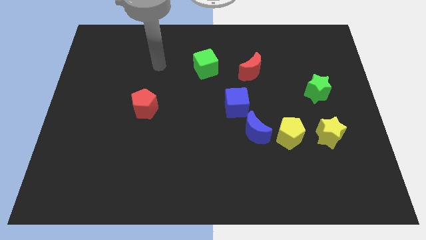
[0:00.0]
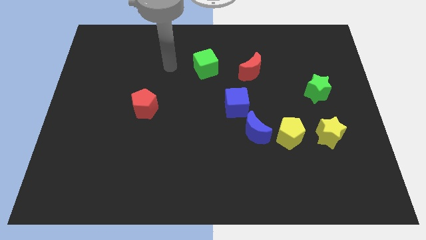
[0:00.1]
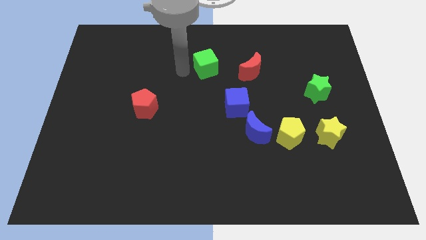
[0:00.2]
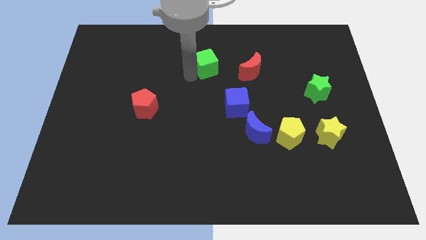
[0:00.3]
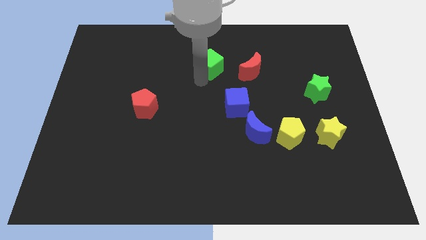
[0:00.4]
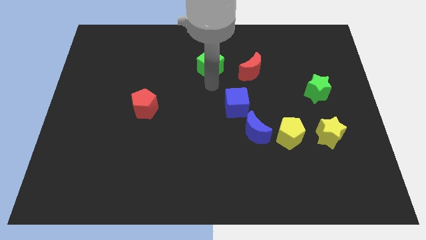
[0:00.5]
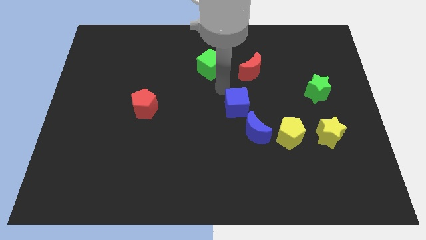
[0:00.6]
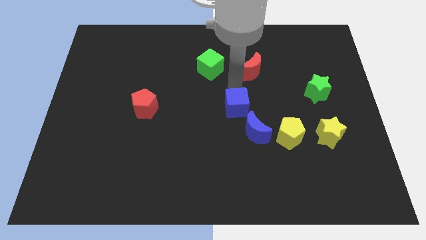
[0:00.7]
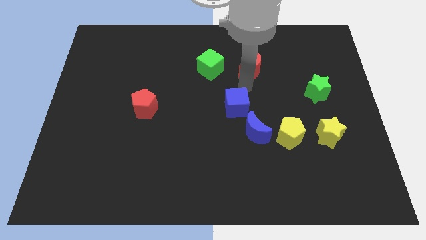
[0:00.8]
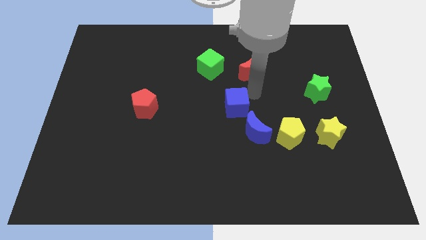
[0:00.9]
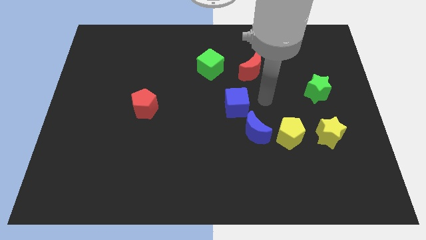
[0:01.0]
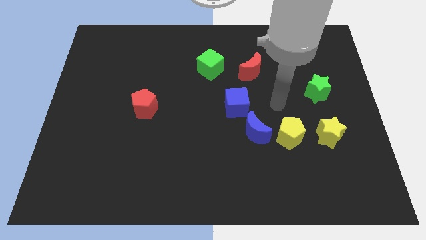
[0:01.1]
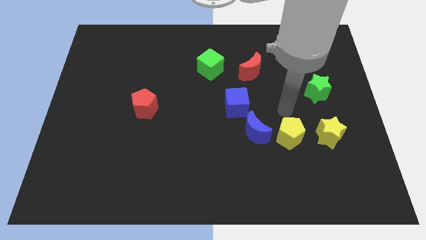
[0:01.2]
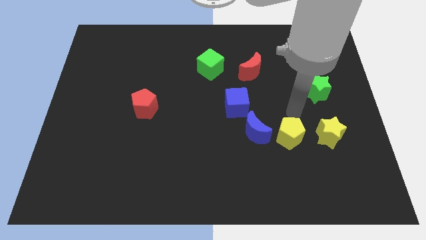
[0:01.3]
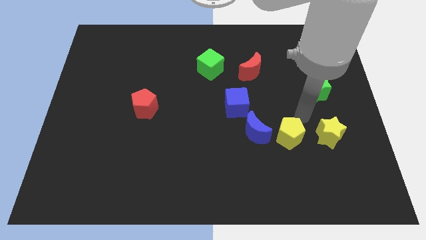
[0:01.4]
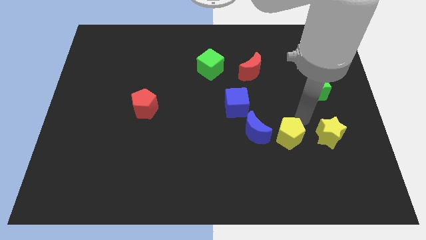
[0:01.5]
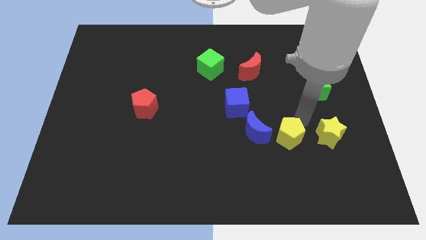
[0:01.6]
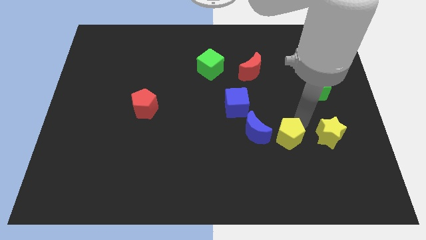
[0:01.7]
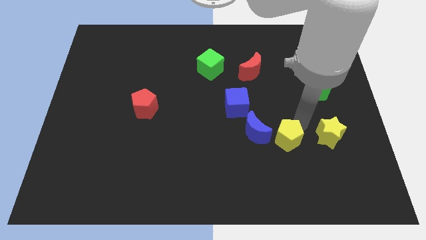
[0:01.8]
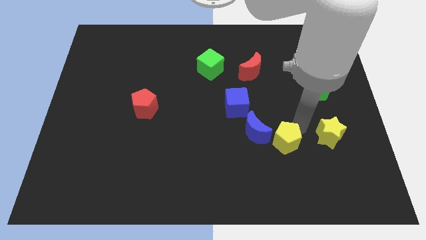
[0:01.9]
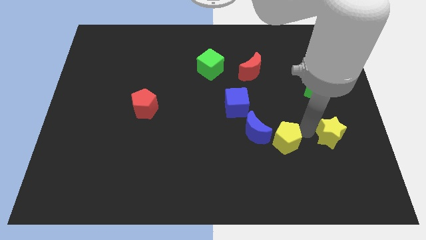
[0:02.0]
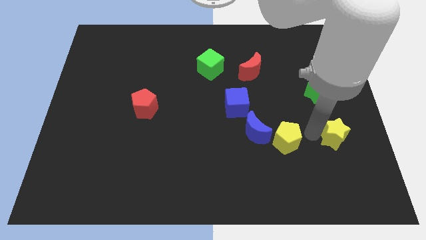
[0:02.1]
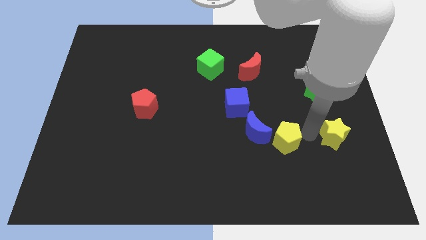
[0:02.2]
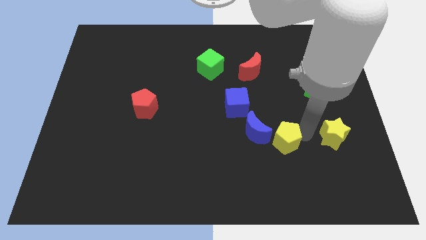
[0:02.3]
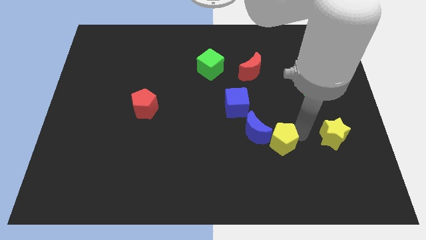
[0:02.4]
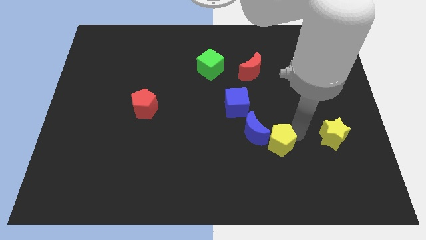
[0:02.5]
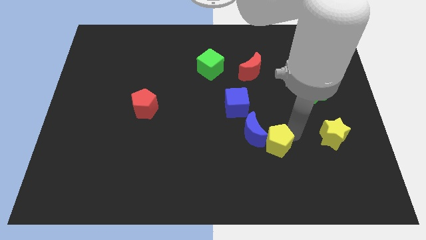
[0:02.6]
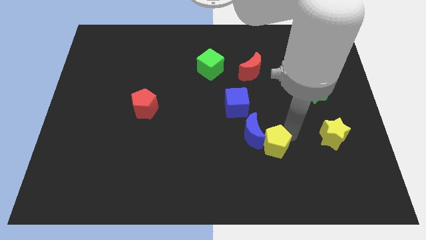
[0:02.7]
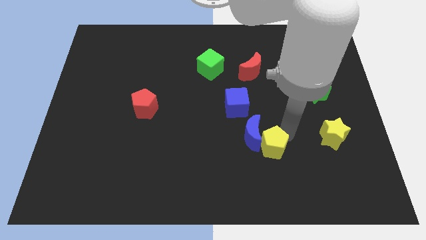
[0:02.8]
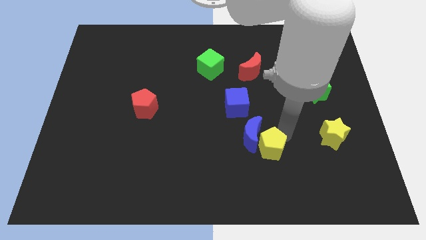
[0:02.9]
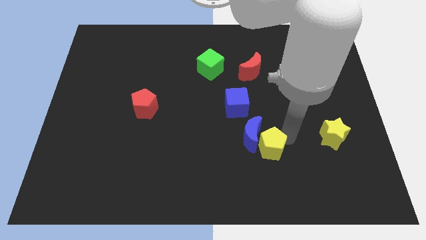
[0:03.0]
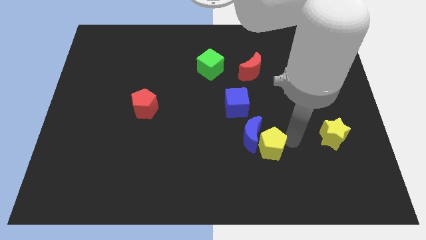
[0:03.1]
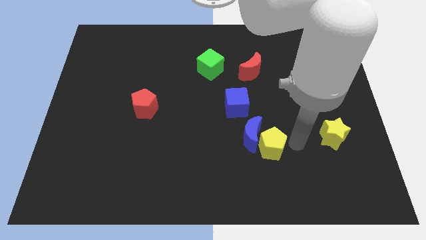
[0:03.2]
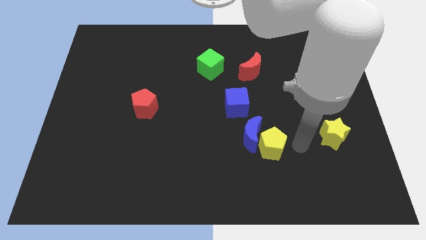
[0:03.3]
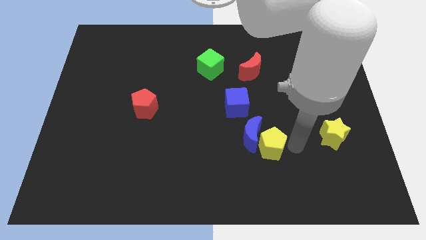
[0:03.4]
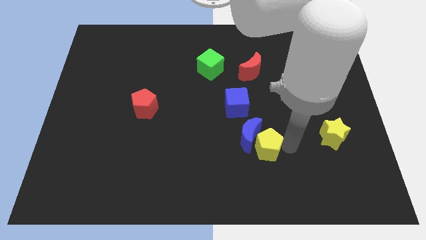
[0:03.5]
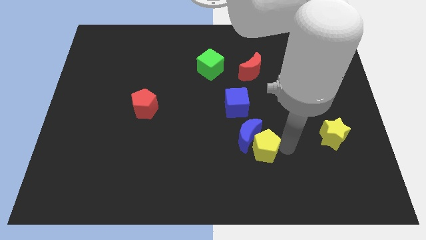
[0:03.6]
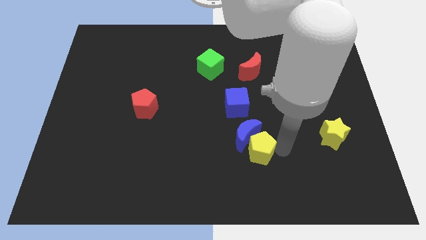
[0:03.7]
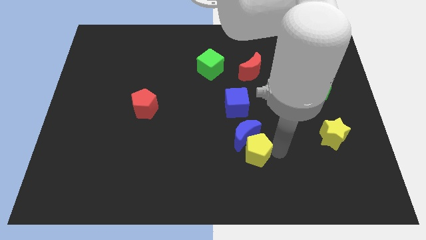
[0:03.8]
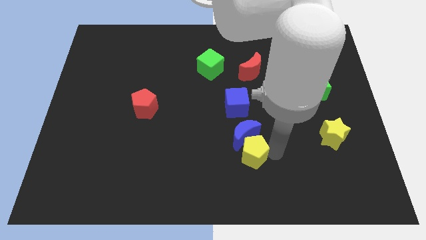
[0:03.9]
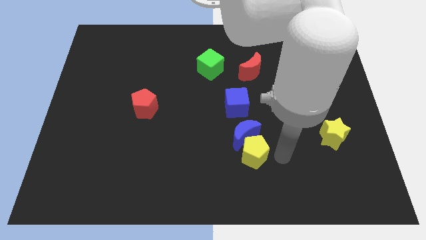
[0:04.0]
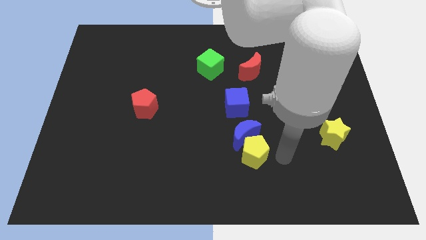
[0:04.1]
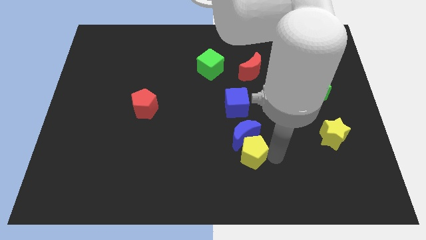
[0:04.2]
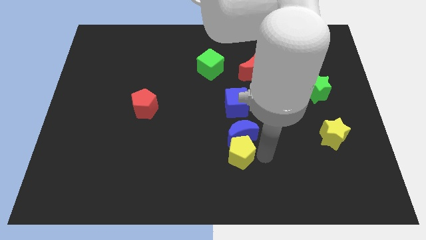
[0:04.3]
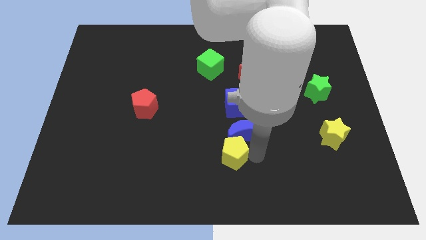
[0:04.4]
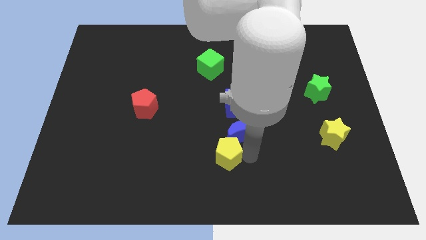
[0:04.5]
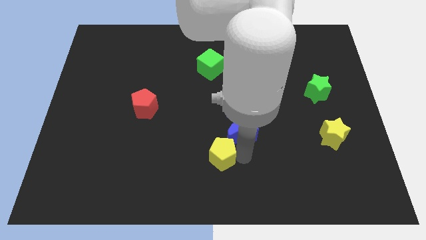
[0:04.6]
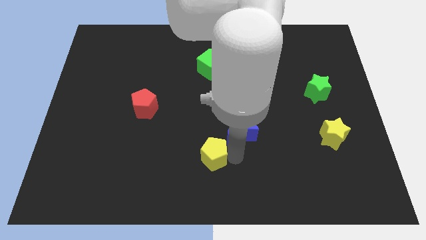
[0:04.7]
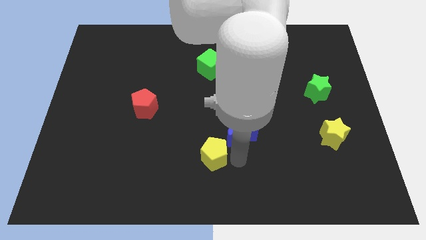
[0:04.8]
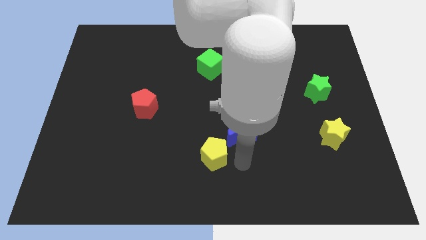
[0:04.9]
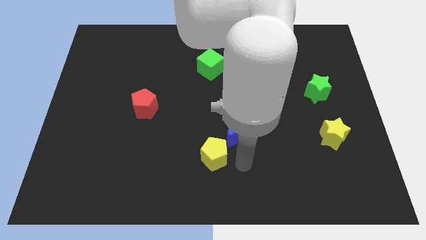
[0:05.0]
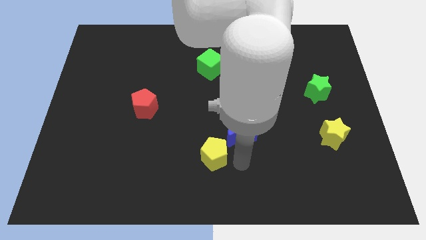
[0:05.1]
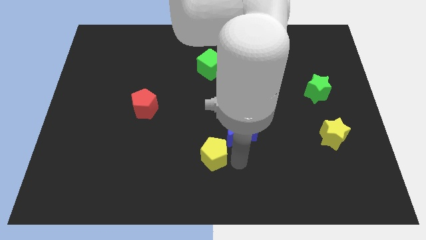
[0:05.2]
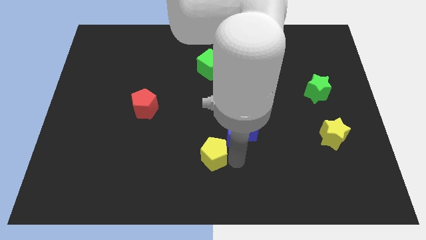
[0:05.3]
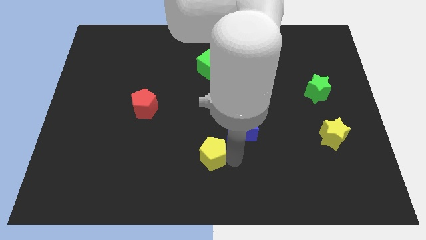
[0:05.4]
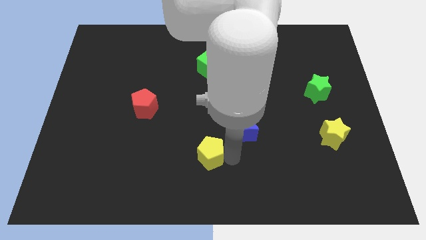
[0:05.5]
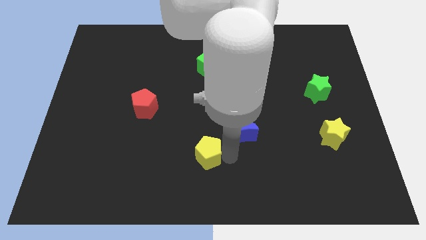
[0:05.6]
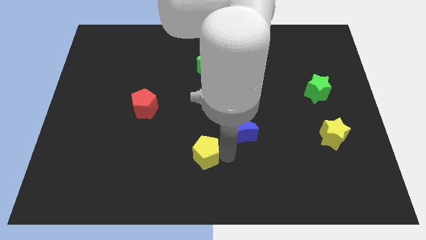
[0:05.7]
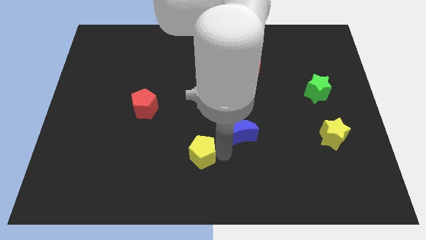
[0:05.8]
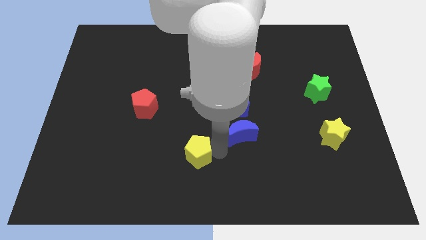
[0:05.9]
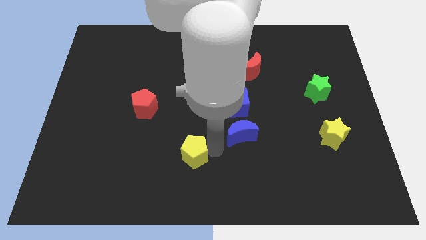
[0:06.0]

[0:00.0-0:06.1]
slide the yellow pentagon left

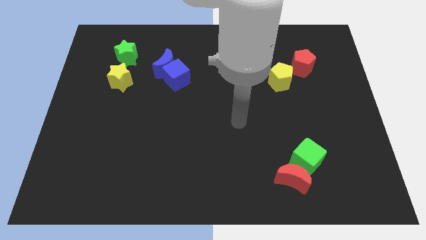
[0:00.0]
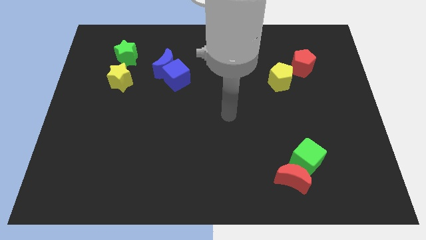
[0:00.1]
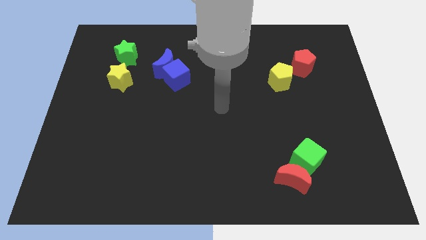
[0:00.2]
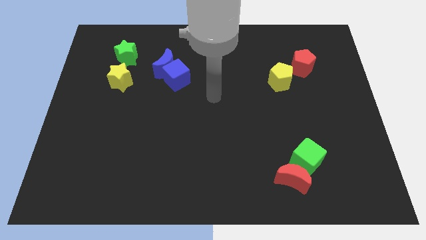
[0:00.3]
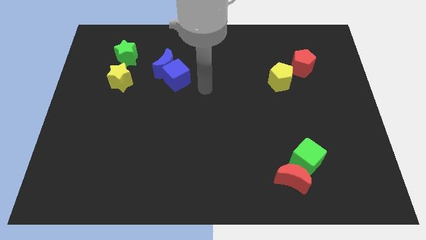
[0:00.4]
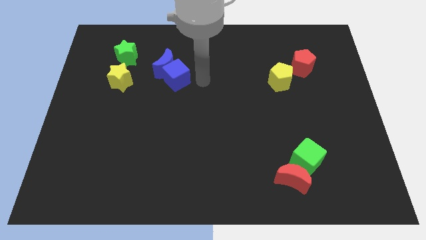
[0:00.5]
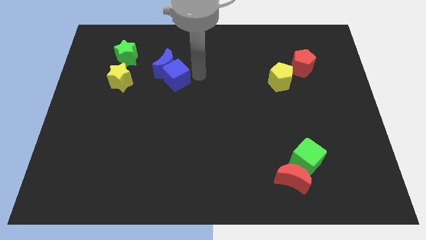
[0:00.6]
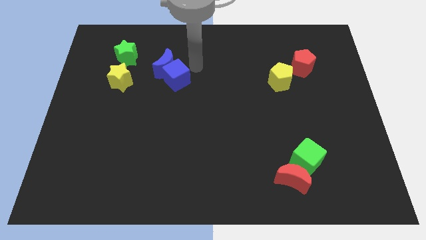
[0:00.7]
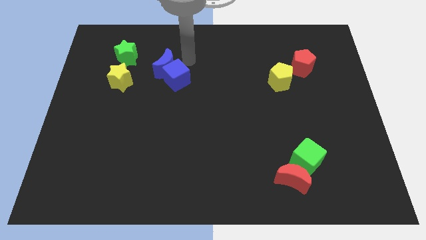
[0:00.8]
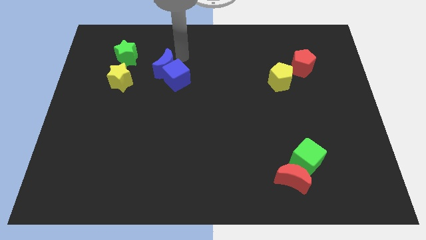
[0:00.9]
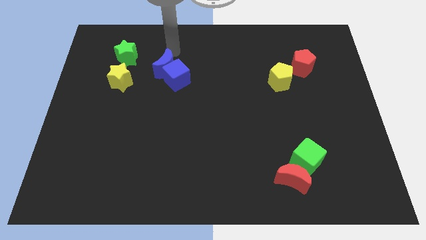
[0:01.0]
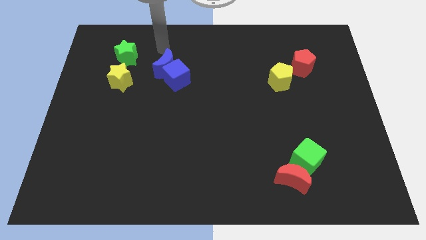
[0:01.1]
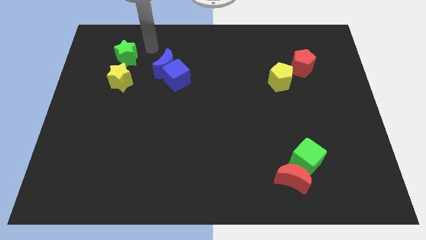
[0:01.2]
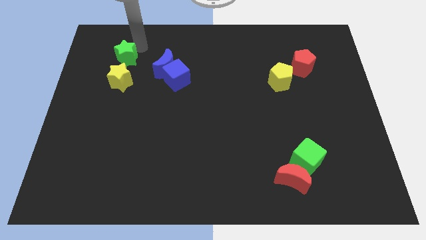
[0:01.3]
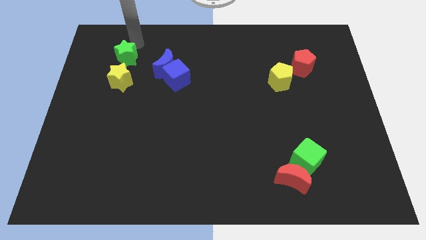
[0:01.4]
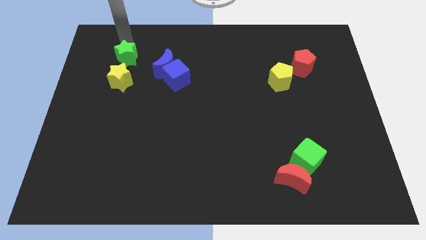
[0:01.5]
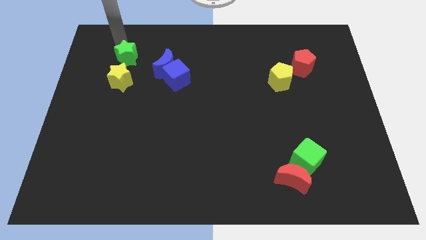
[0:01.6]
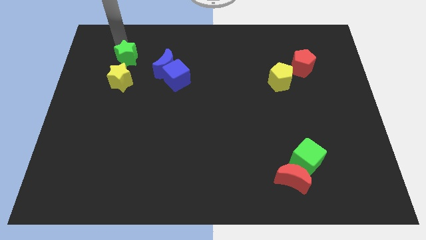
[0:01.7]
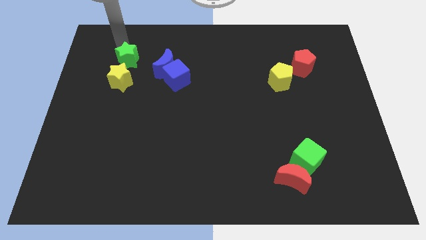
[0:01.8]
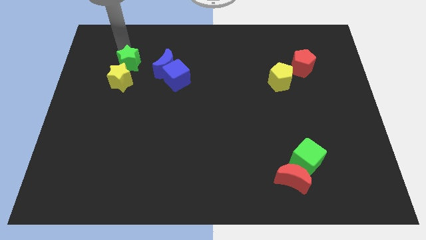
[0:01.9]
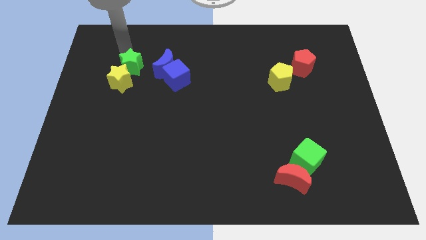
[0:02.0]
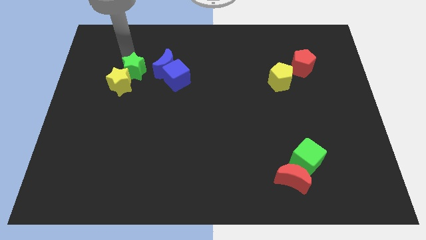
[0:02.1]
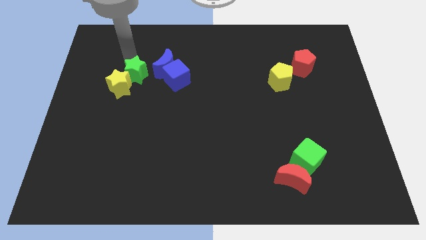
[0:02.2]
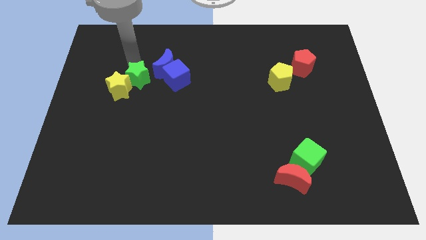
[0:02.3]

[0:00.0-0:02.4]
slide the green star a little bit down
